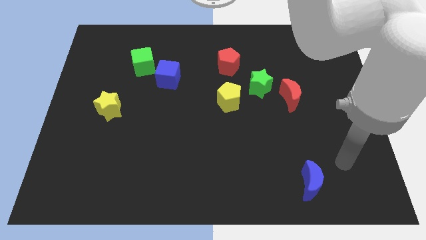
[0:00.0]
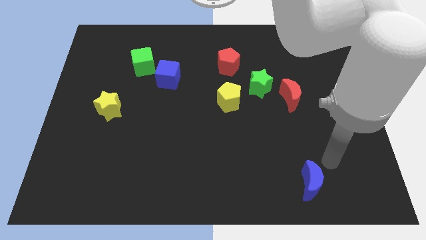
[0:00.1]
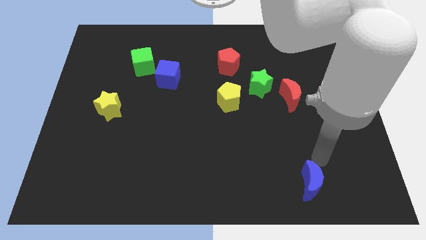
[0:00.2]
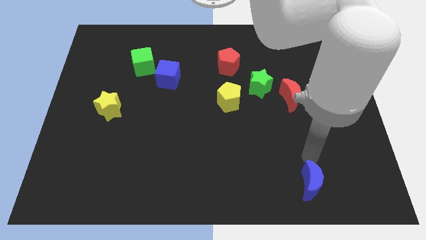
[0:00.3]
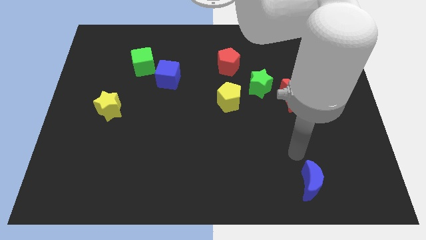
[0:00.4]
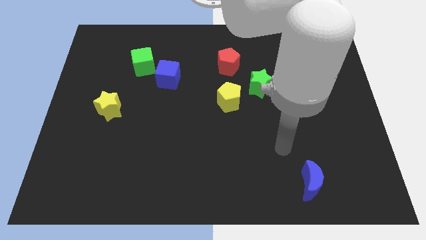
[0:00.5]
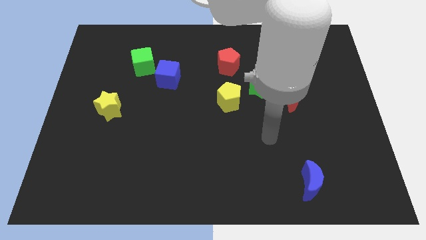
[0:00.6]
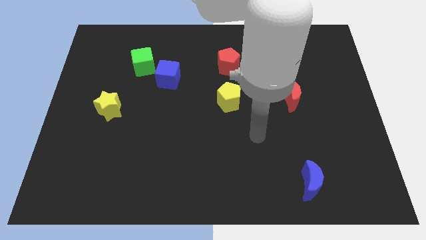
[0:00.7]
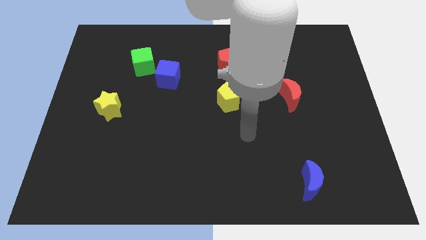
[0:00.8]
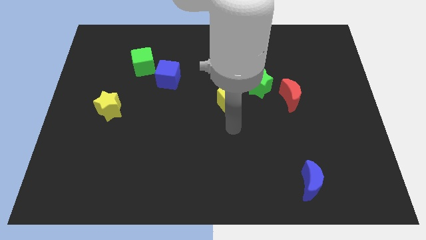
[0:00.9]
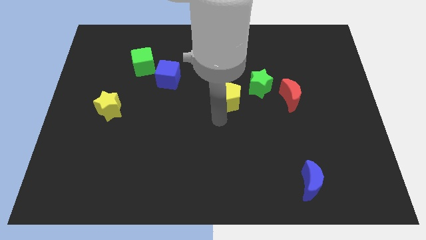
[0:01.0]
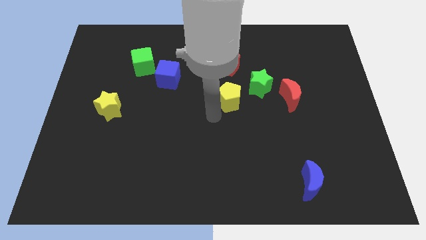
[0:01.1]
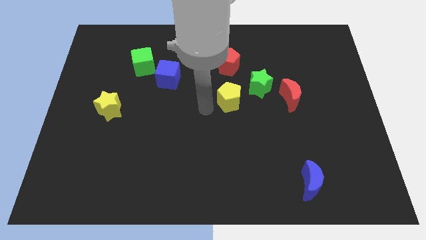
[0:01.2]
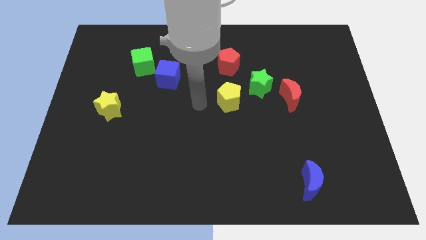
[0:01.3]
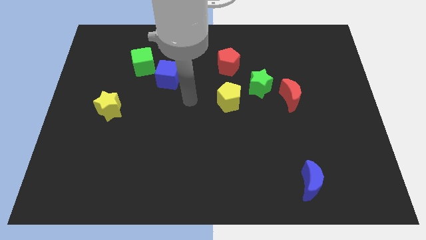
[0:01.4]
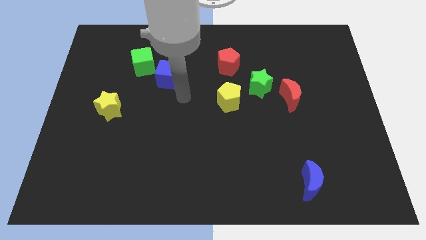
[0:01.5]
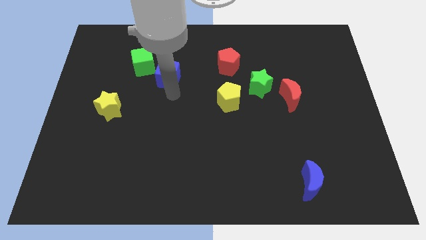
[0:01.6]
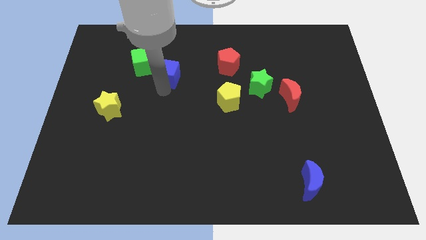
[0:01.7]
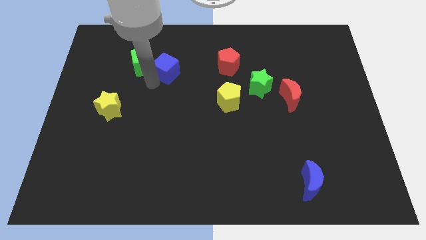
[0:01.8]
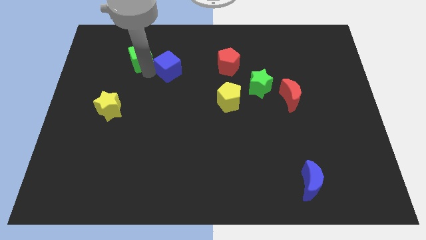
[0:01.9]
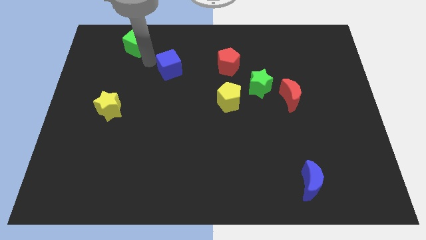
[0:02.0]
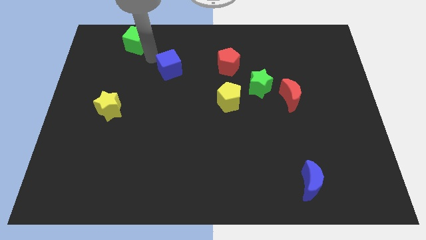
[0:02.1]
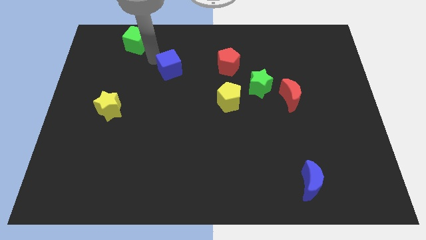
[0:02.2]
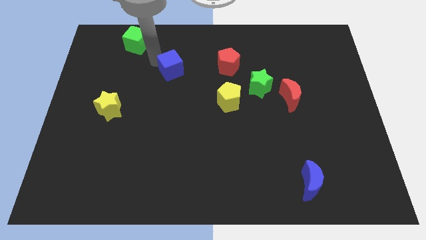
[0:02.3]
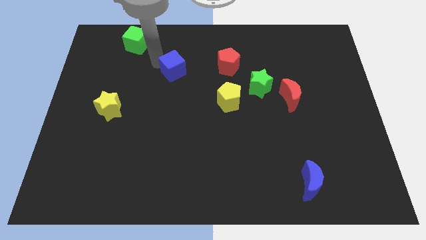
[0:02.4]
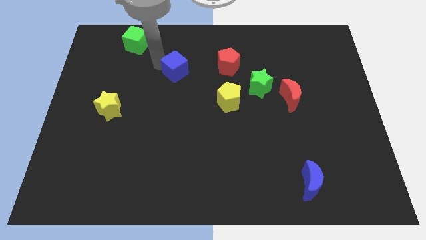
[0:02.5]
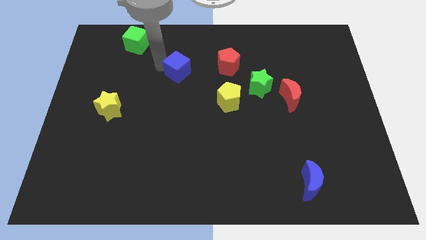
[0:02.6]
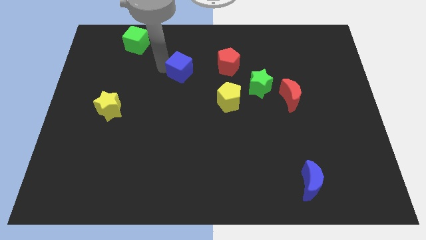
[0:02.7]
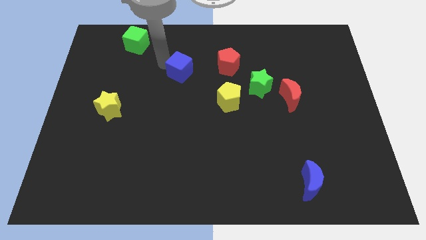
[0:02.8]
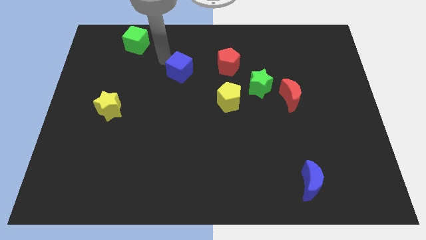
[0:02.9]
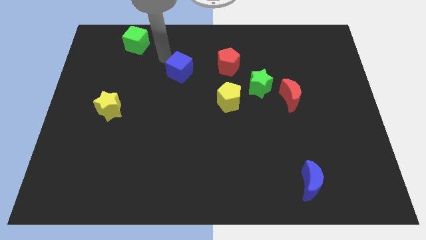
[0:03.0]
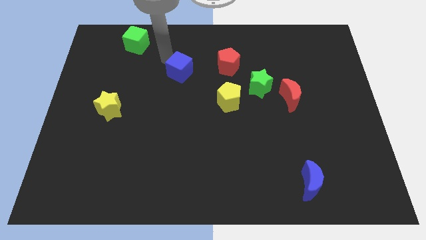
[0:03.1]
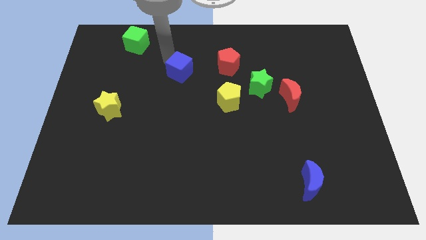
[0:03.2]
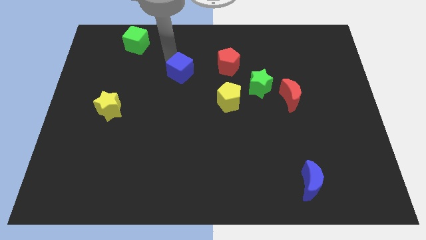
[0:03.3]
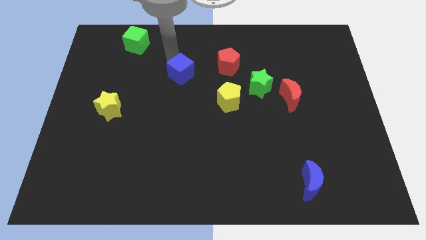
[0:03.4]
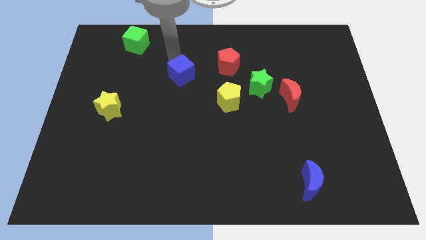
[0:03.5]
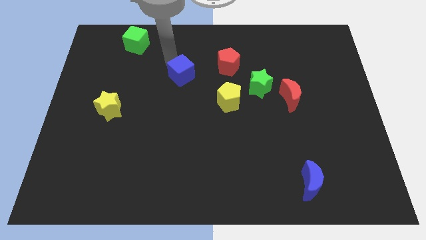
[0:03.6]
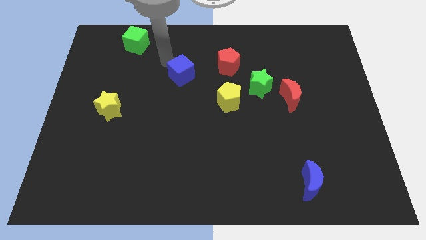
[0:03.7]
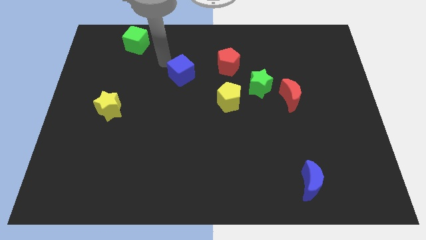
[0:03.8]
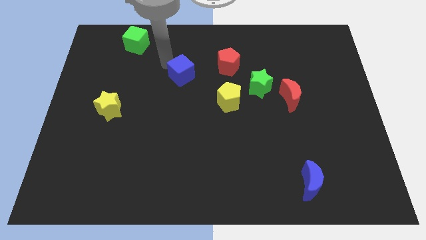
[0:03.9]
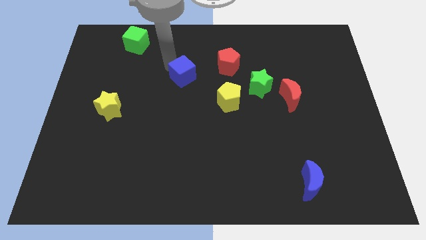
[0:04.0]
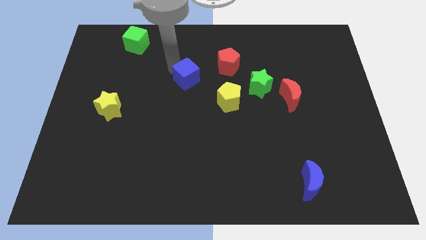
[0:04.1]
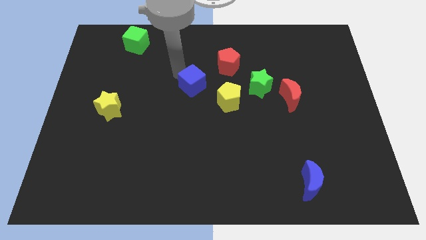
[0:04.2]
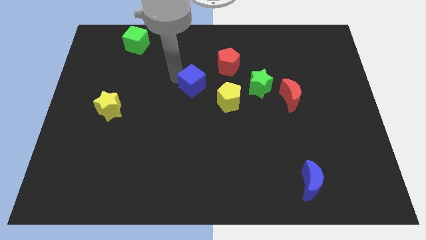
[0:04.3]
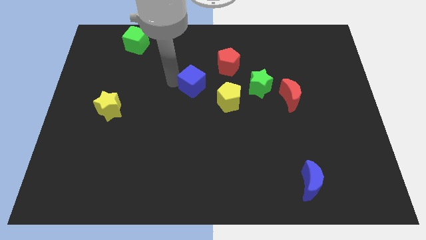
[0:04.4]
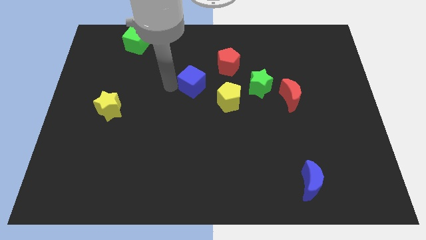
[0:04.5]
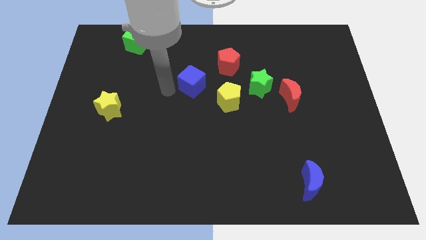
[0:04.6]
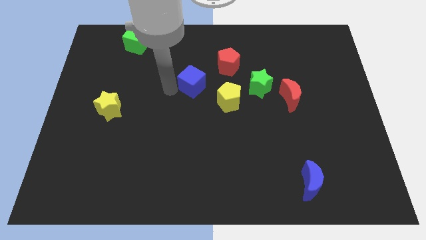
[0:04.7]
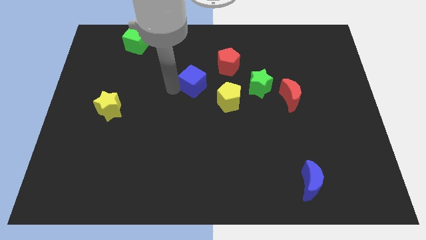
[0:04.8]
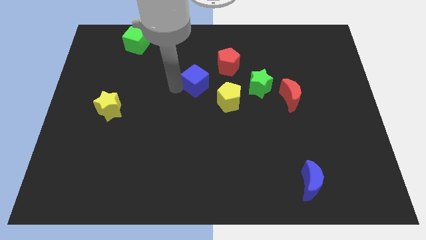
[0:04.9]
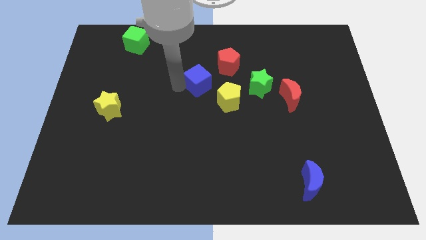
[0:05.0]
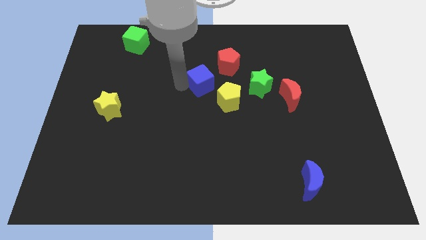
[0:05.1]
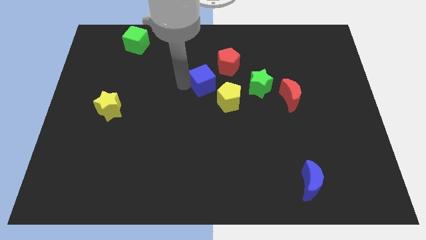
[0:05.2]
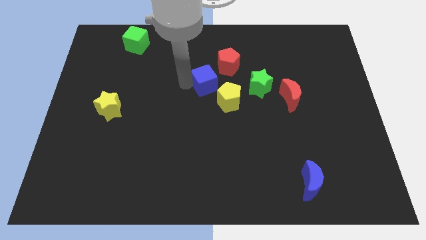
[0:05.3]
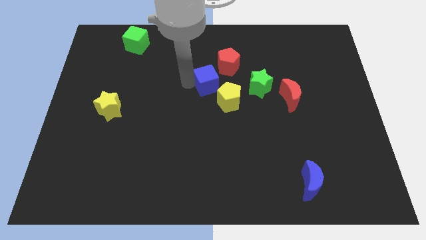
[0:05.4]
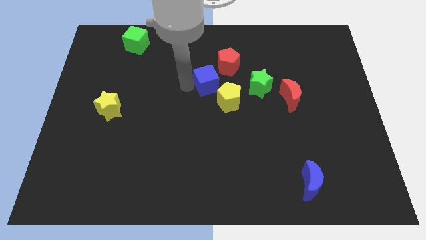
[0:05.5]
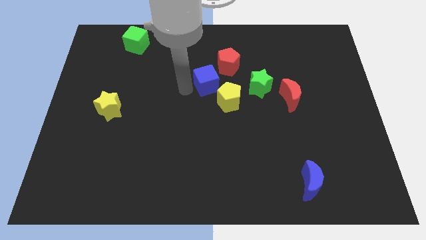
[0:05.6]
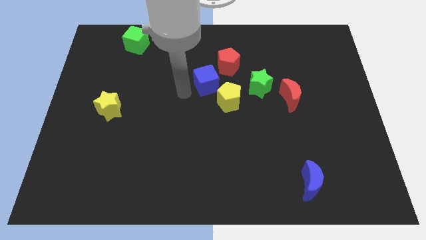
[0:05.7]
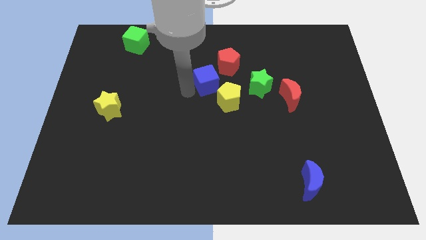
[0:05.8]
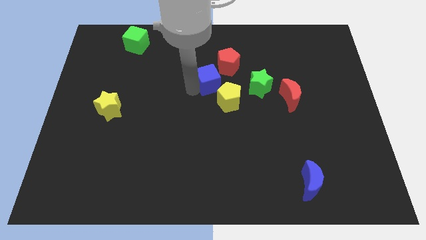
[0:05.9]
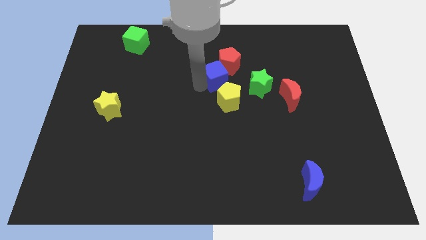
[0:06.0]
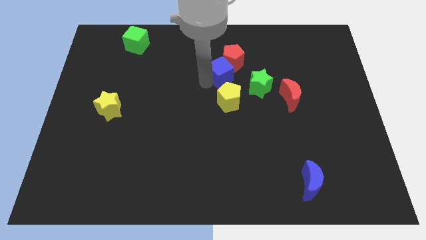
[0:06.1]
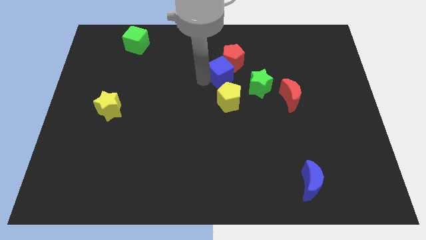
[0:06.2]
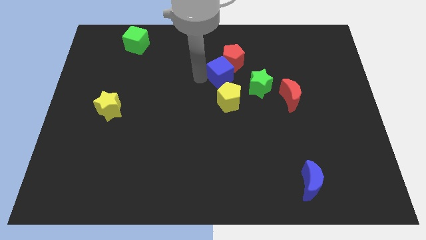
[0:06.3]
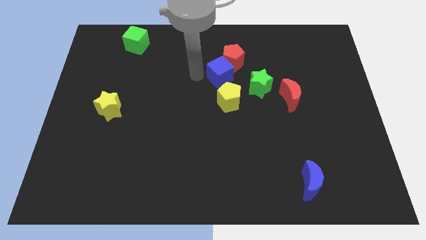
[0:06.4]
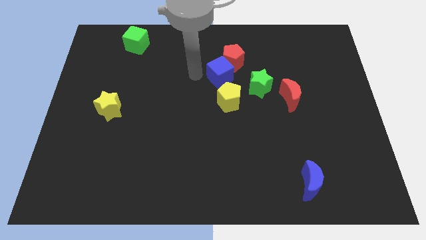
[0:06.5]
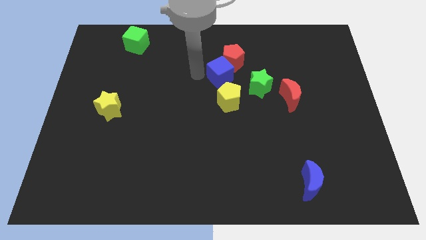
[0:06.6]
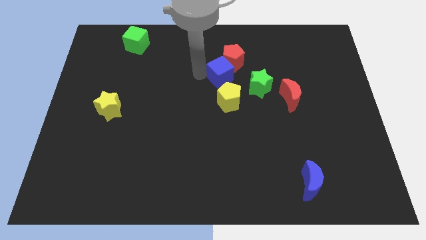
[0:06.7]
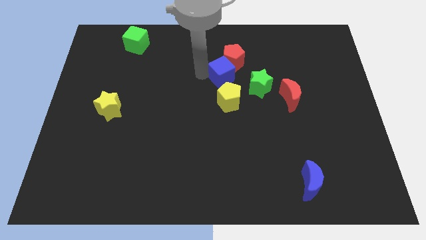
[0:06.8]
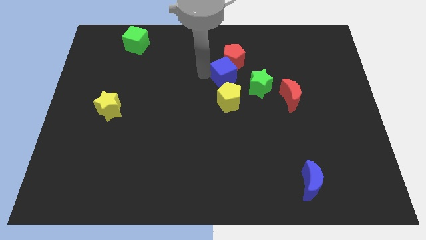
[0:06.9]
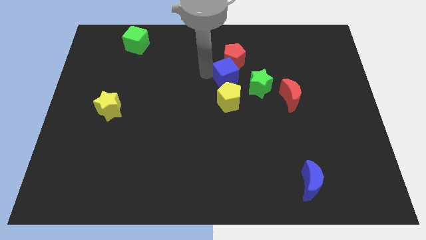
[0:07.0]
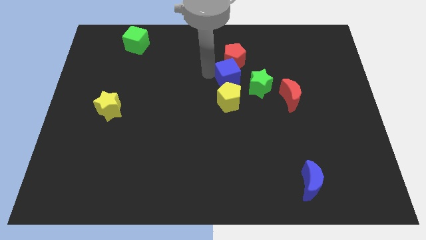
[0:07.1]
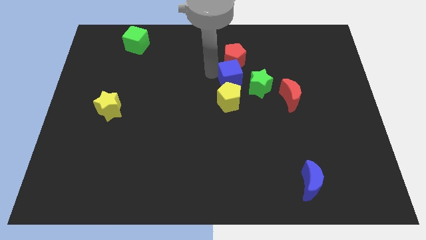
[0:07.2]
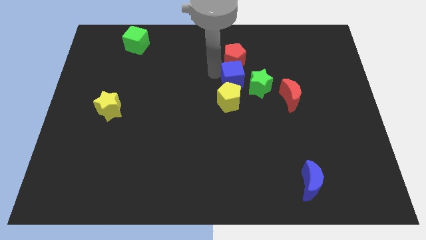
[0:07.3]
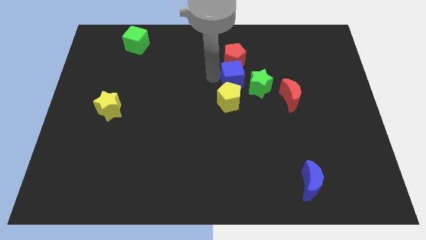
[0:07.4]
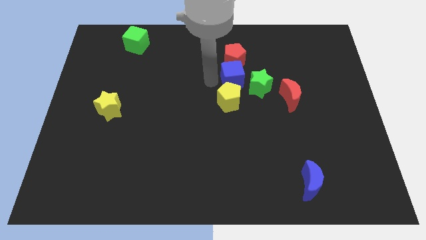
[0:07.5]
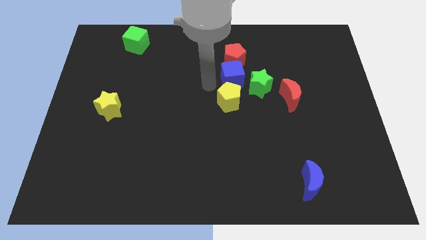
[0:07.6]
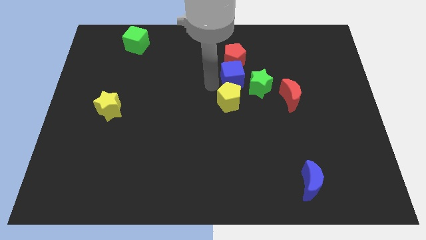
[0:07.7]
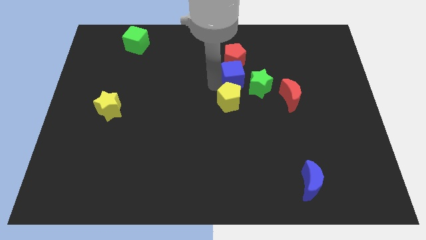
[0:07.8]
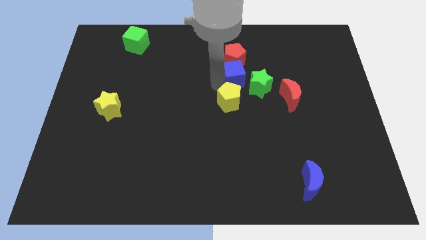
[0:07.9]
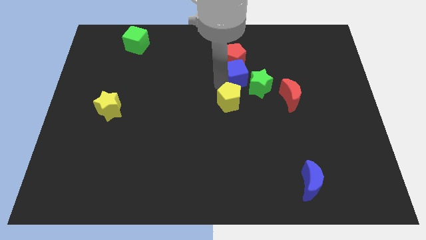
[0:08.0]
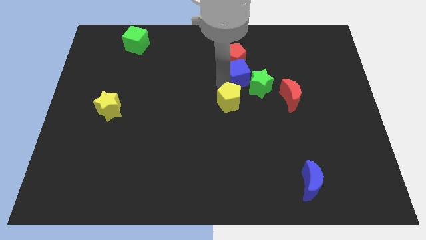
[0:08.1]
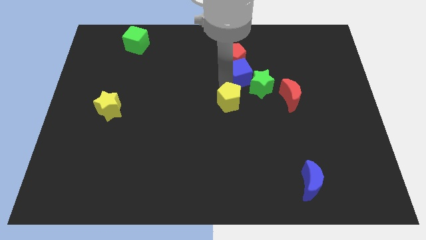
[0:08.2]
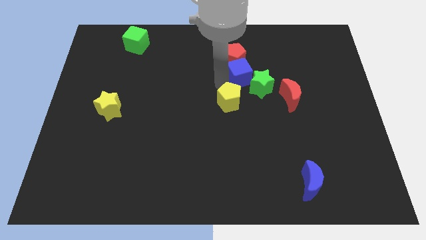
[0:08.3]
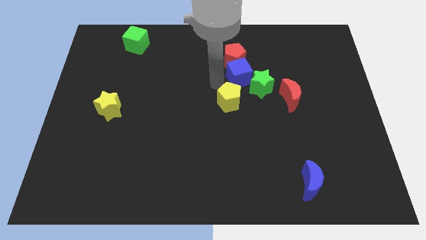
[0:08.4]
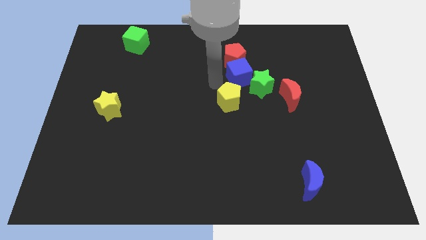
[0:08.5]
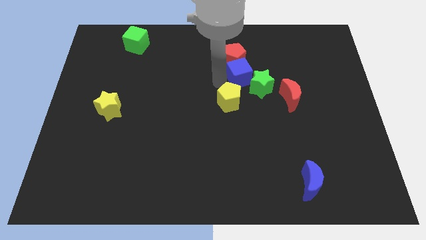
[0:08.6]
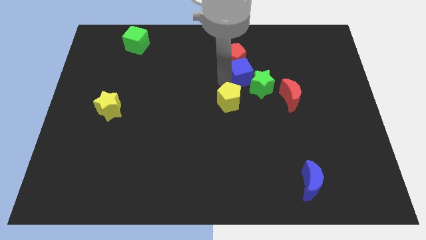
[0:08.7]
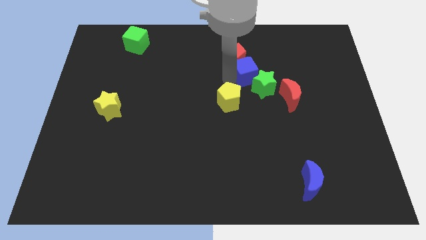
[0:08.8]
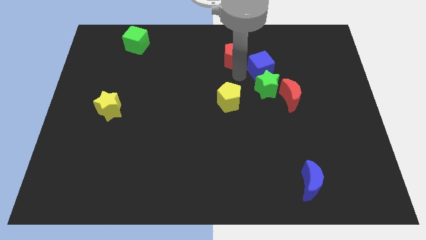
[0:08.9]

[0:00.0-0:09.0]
slide the blue cube to the right
